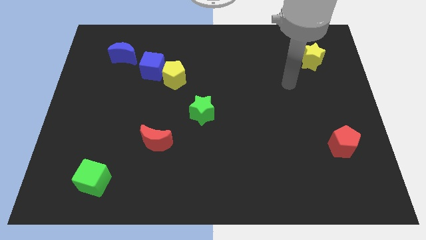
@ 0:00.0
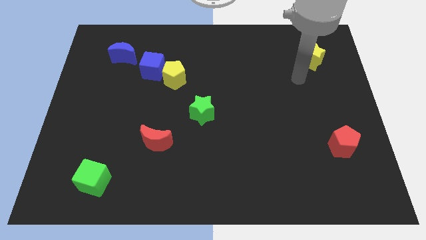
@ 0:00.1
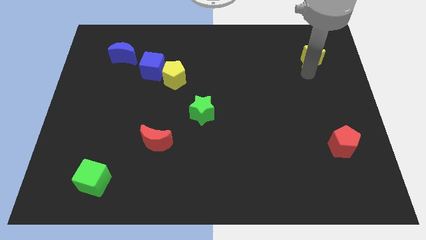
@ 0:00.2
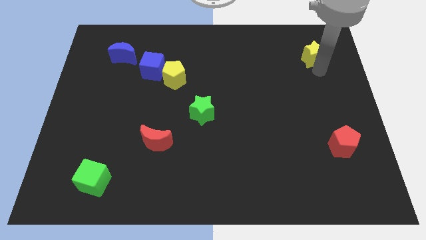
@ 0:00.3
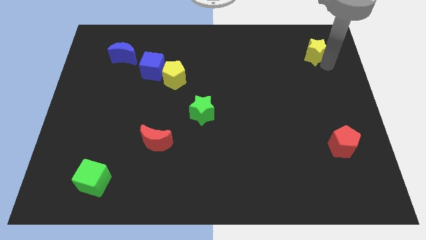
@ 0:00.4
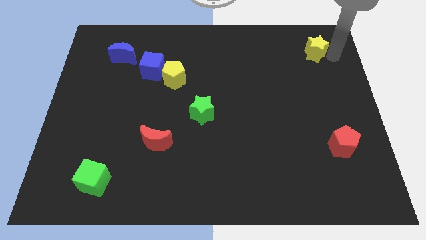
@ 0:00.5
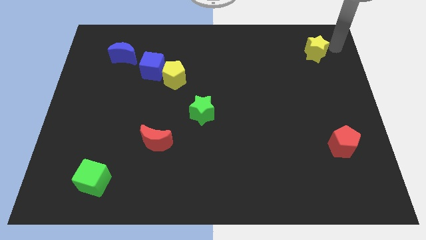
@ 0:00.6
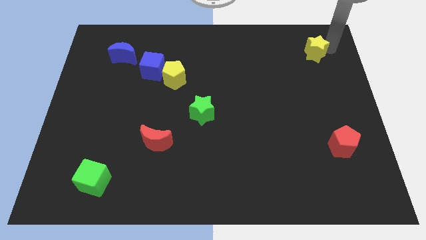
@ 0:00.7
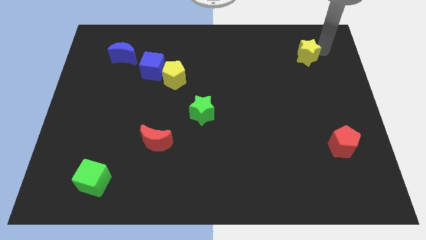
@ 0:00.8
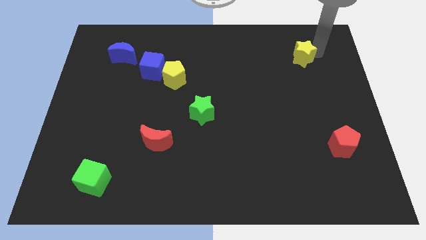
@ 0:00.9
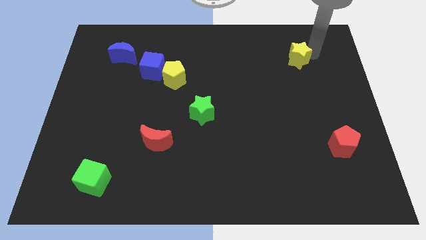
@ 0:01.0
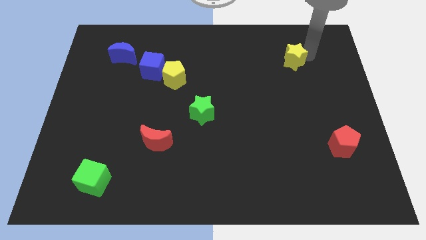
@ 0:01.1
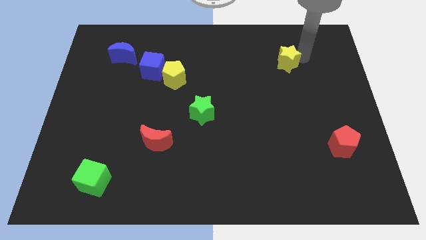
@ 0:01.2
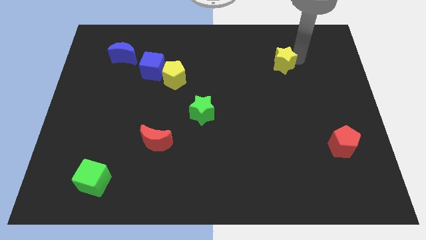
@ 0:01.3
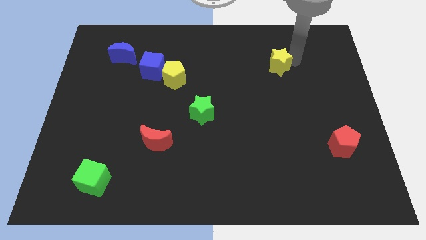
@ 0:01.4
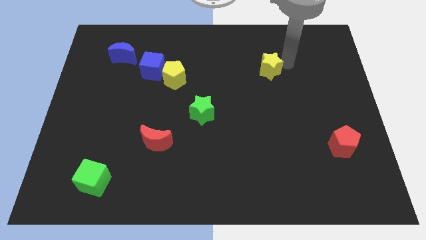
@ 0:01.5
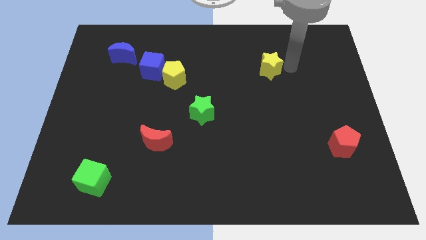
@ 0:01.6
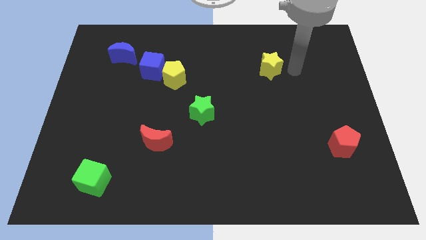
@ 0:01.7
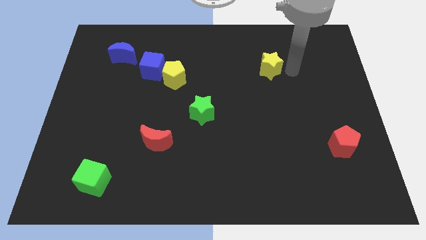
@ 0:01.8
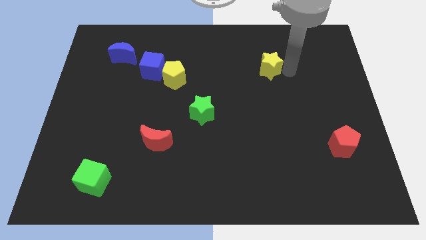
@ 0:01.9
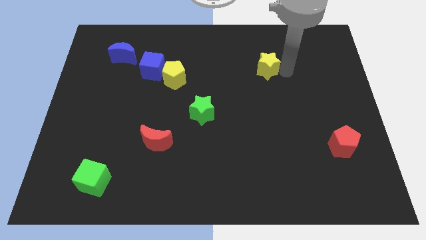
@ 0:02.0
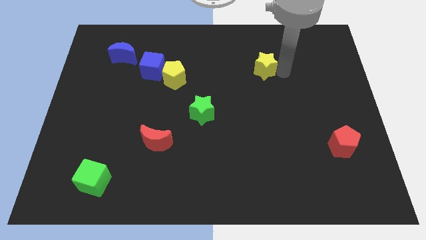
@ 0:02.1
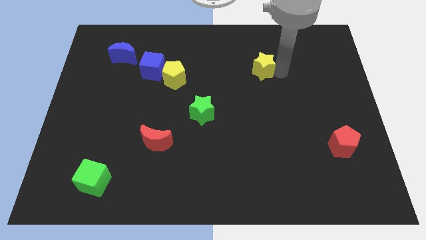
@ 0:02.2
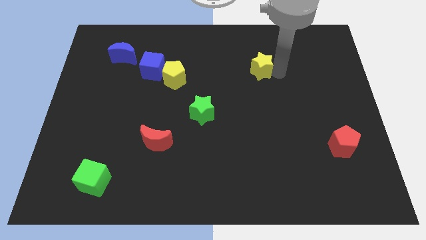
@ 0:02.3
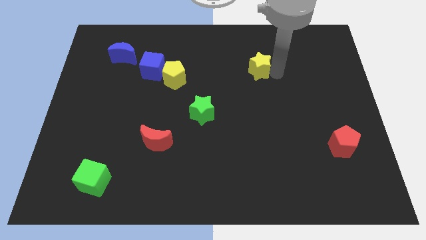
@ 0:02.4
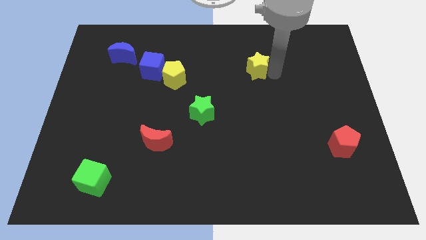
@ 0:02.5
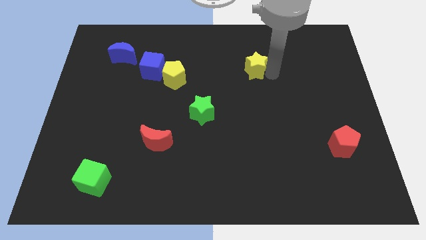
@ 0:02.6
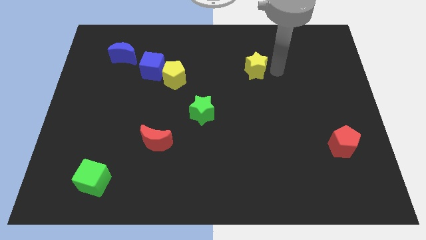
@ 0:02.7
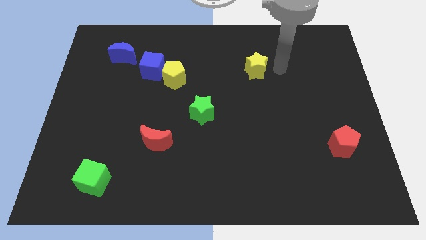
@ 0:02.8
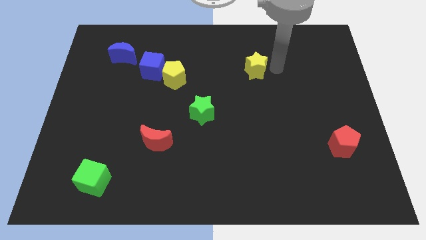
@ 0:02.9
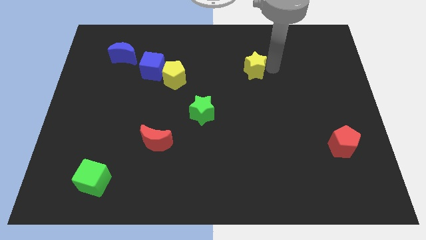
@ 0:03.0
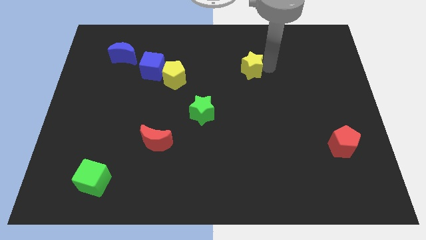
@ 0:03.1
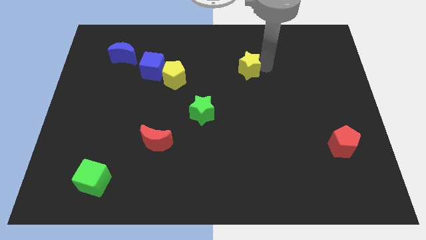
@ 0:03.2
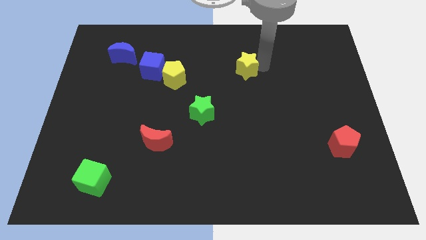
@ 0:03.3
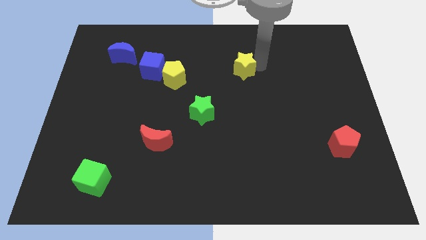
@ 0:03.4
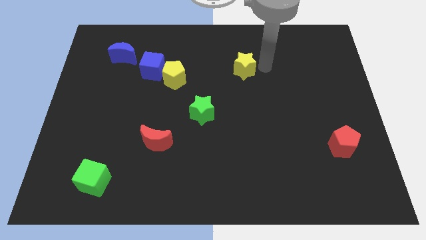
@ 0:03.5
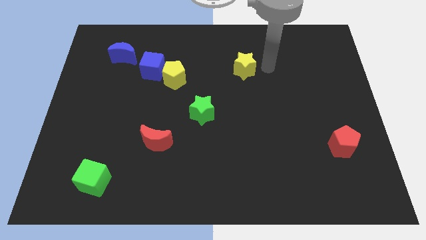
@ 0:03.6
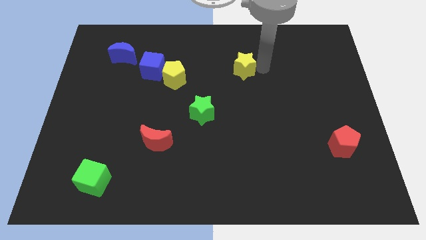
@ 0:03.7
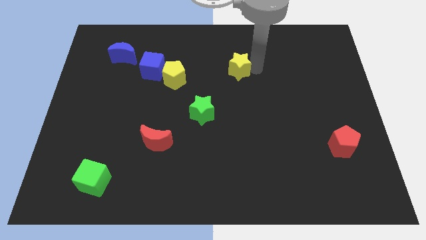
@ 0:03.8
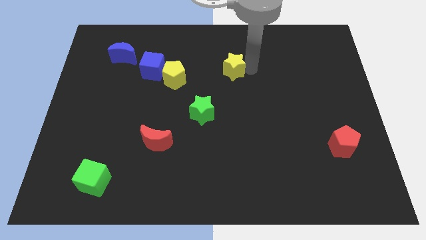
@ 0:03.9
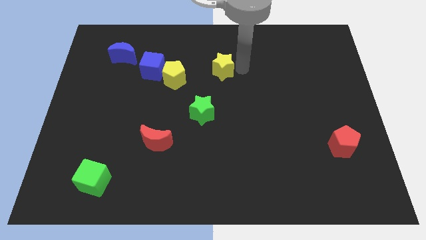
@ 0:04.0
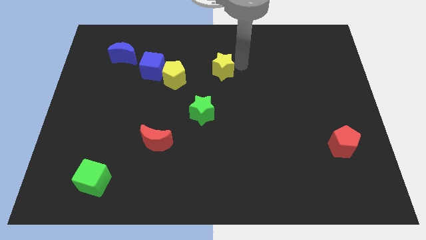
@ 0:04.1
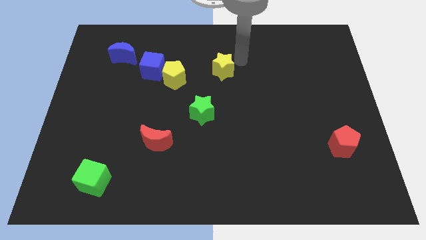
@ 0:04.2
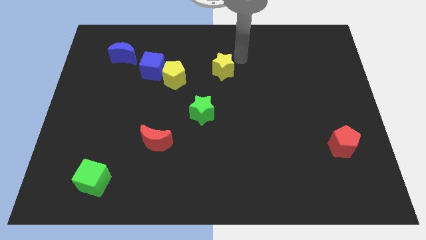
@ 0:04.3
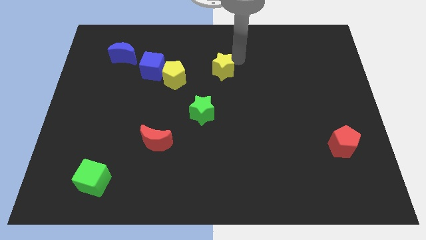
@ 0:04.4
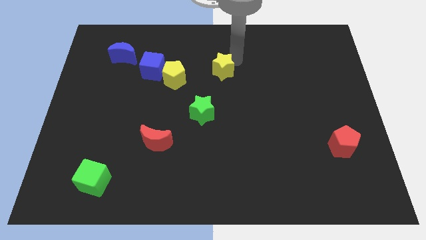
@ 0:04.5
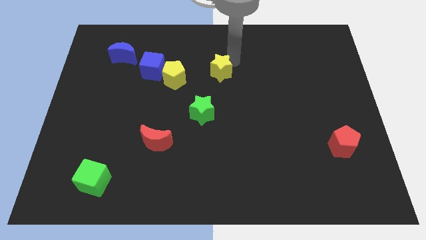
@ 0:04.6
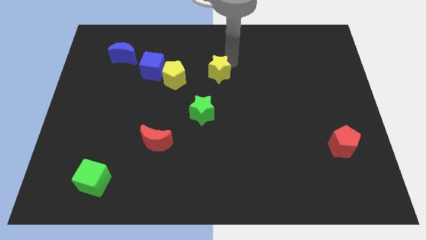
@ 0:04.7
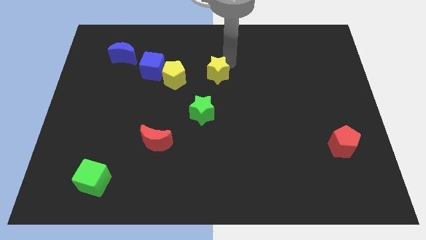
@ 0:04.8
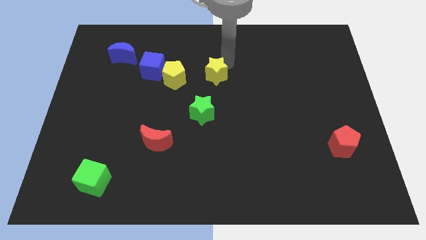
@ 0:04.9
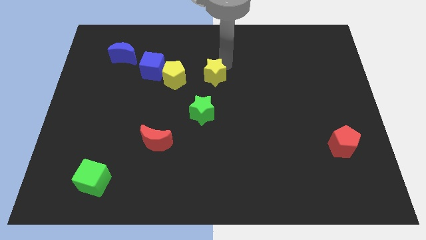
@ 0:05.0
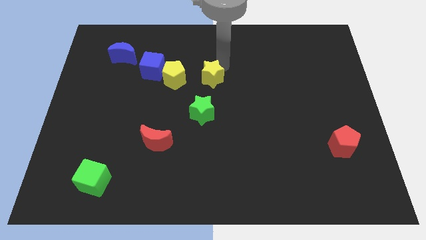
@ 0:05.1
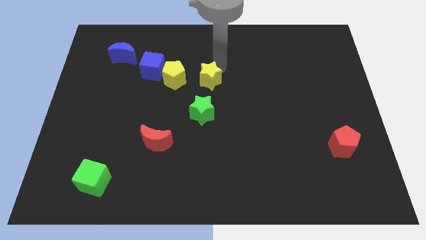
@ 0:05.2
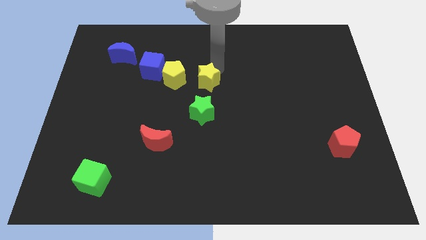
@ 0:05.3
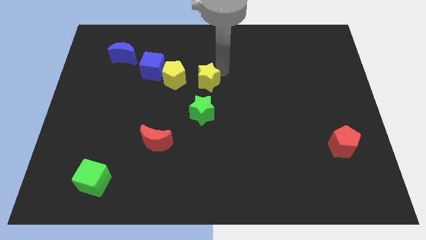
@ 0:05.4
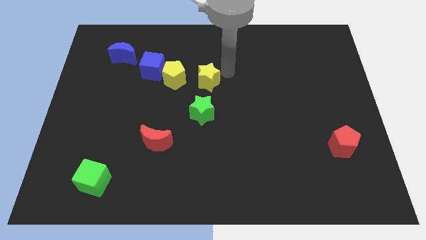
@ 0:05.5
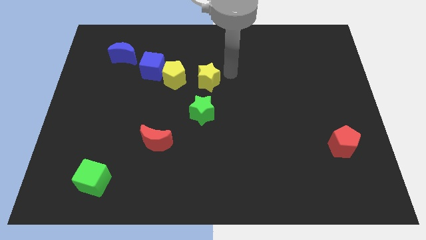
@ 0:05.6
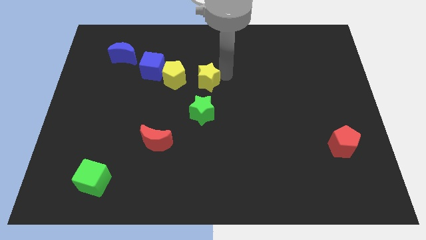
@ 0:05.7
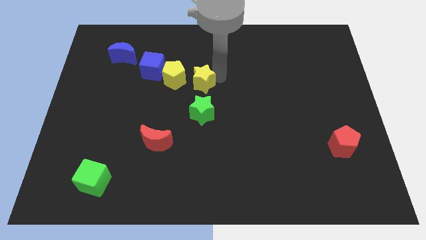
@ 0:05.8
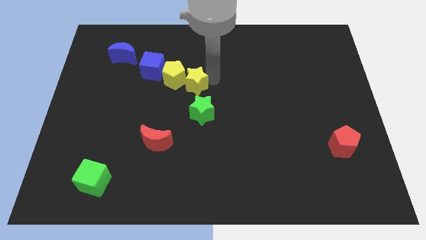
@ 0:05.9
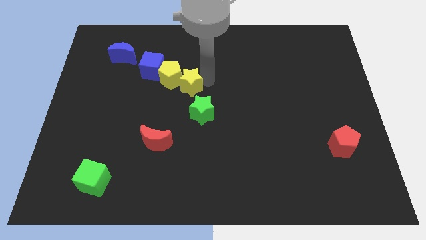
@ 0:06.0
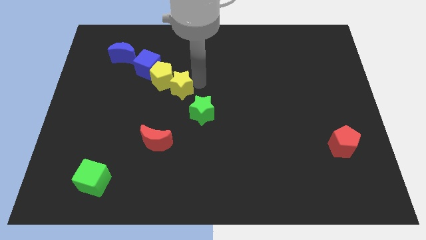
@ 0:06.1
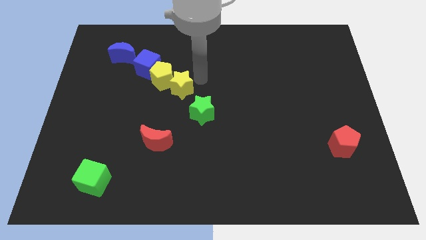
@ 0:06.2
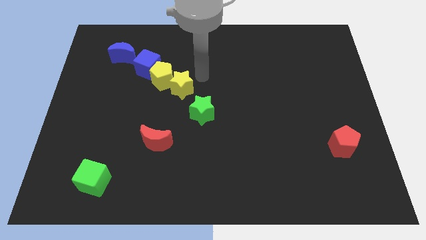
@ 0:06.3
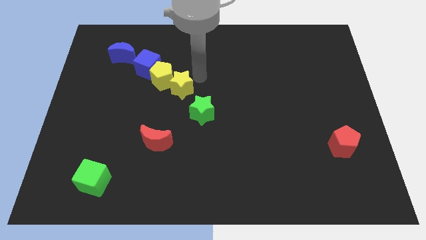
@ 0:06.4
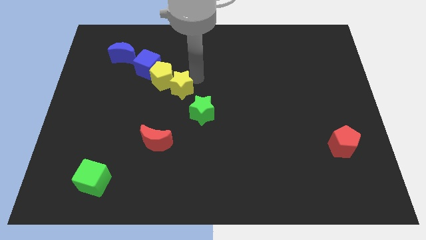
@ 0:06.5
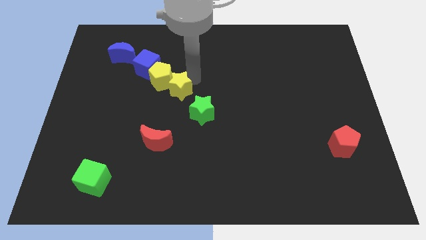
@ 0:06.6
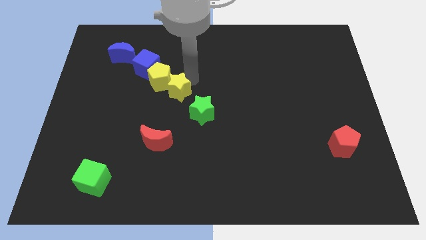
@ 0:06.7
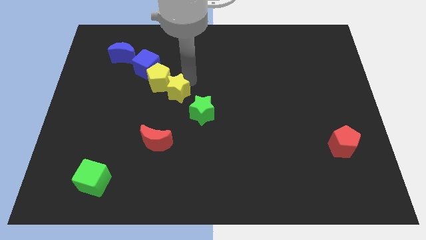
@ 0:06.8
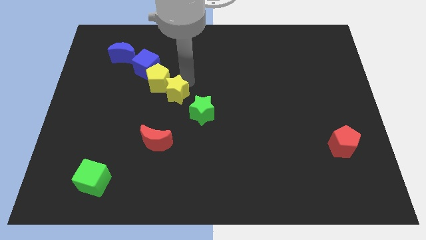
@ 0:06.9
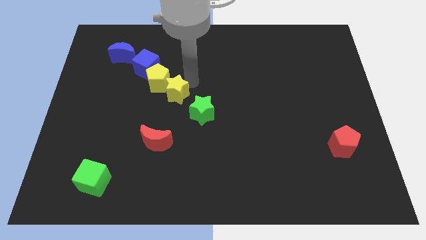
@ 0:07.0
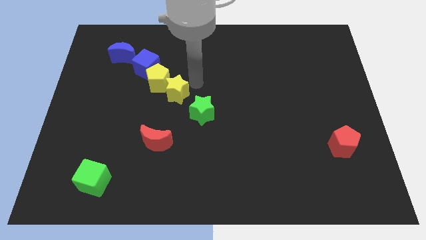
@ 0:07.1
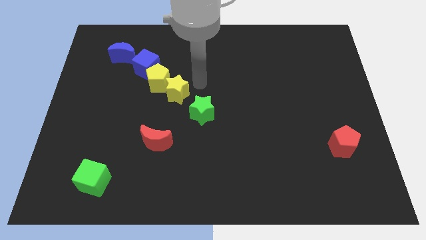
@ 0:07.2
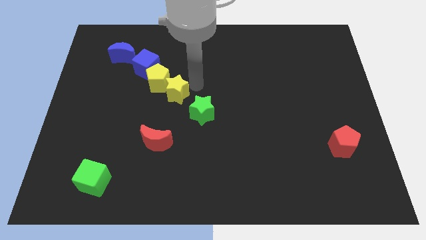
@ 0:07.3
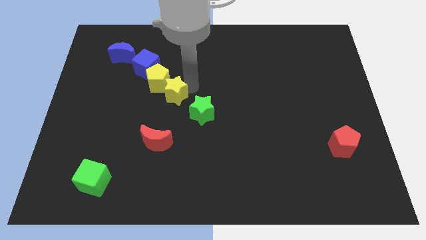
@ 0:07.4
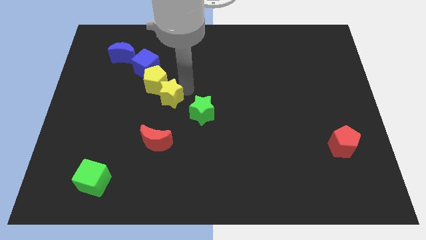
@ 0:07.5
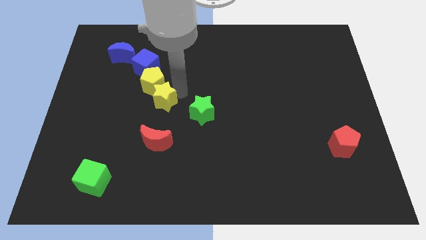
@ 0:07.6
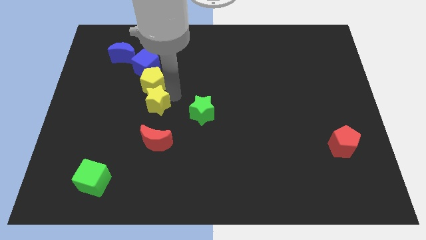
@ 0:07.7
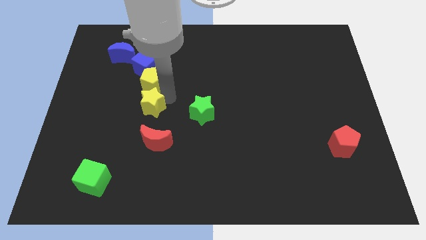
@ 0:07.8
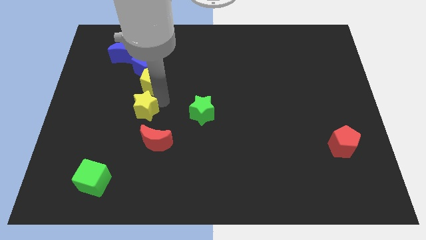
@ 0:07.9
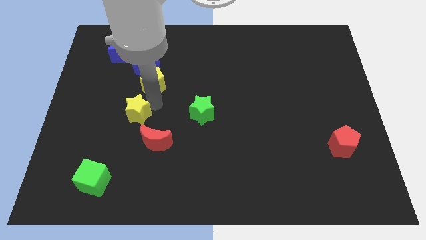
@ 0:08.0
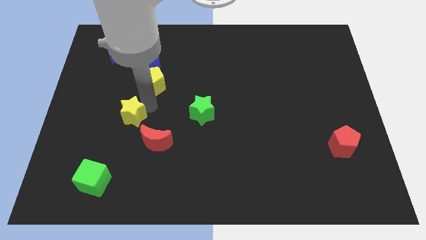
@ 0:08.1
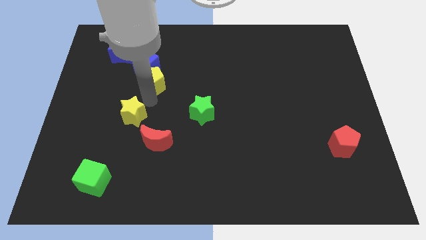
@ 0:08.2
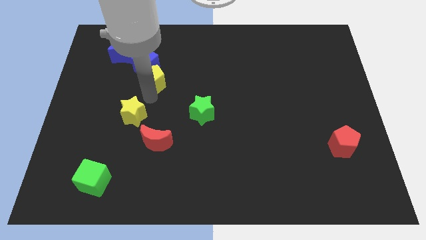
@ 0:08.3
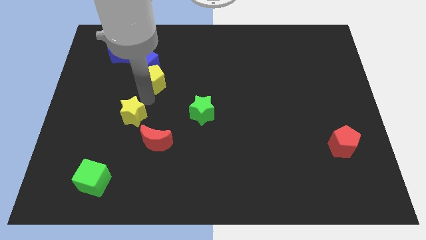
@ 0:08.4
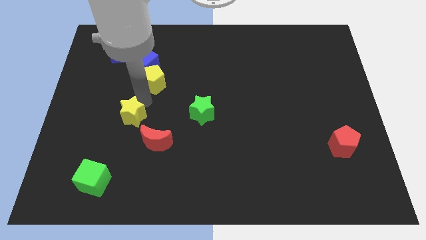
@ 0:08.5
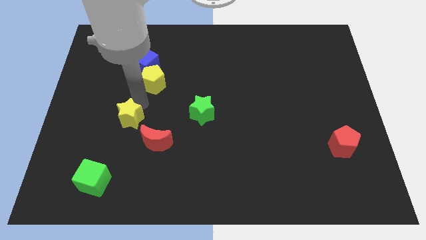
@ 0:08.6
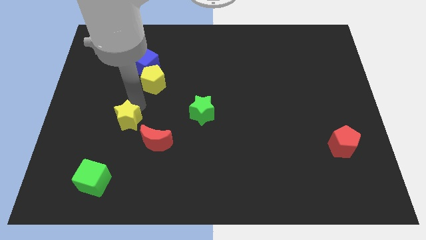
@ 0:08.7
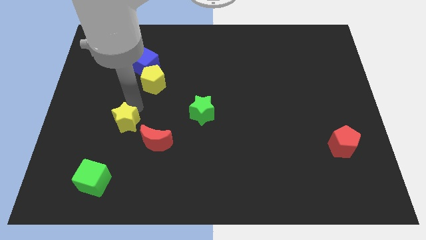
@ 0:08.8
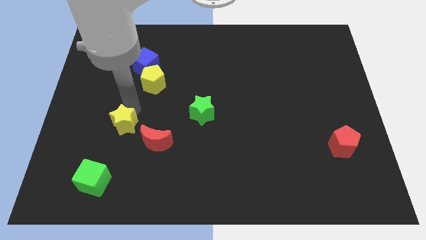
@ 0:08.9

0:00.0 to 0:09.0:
put the yellow star to the left side of the red moon
